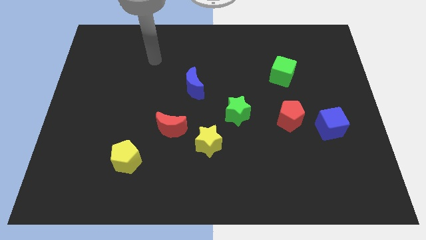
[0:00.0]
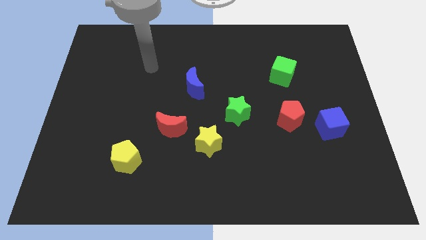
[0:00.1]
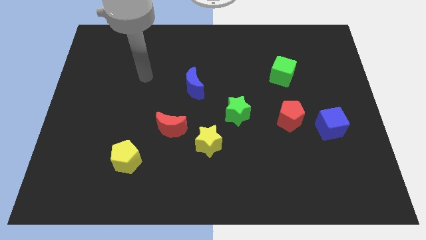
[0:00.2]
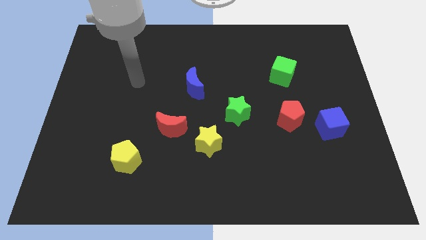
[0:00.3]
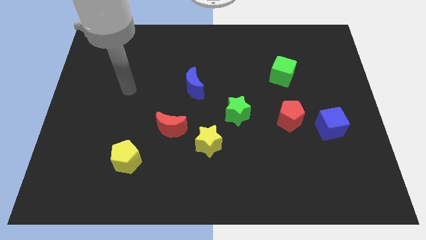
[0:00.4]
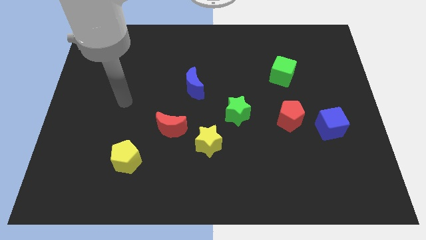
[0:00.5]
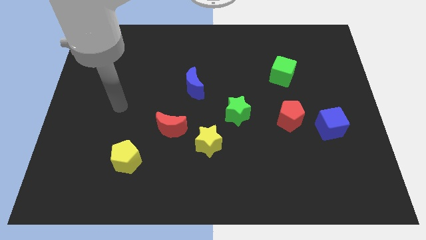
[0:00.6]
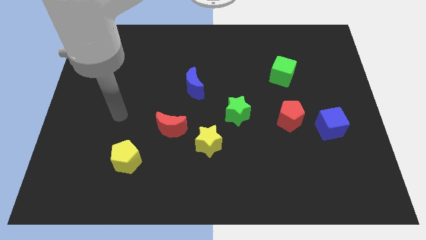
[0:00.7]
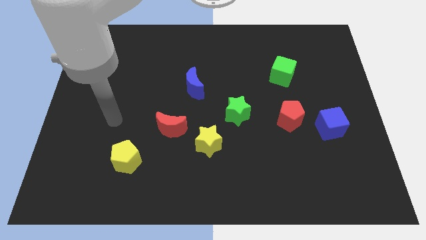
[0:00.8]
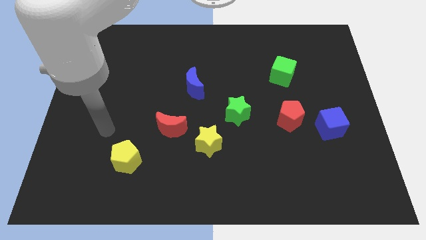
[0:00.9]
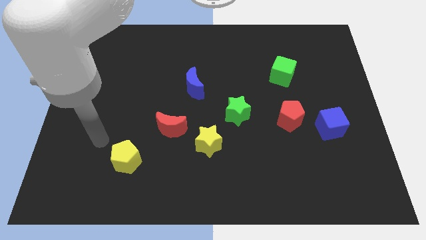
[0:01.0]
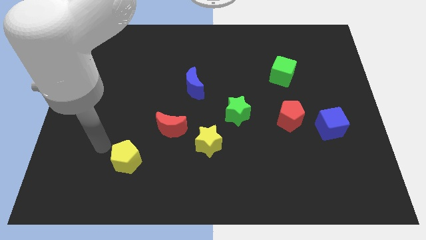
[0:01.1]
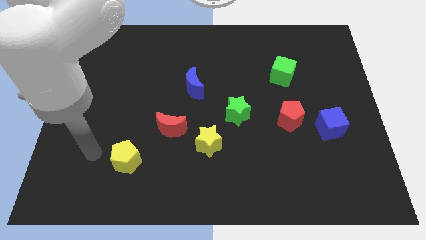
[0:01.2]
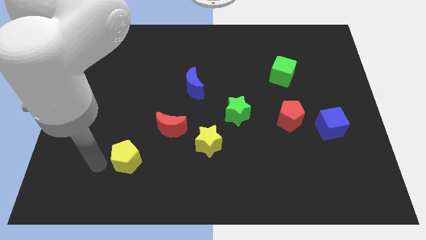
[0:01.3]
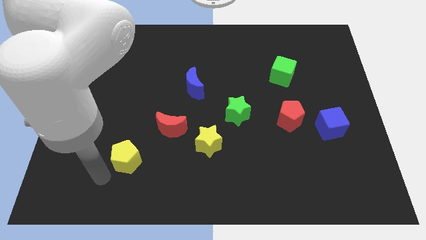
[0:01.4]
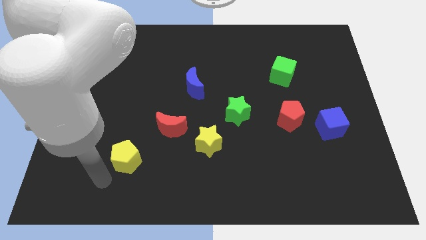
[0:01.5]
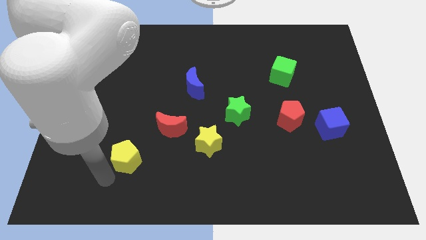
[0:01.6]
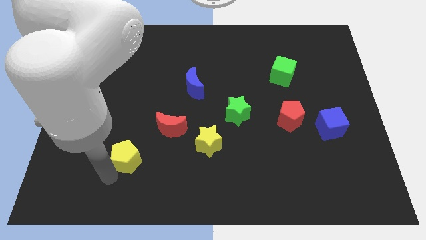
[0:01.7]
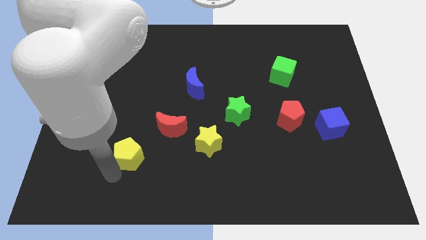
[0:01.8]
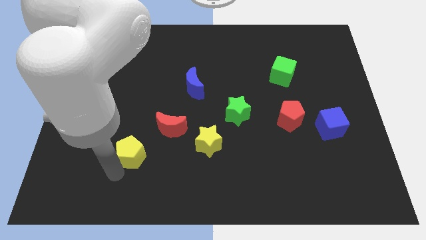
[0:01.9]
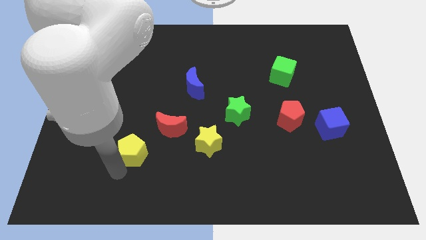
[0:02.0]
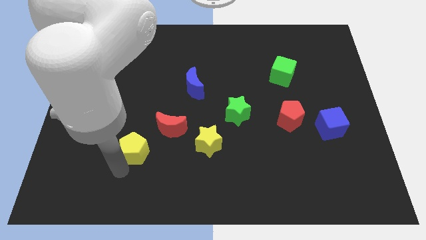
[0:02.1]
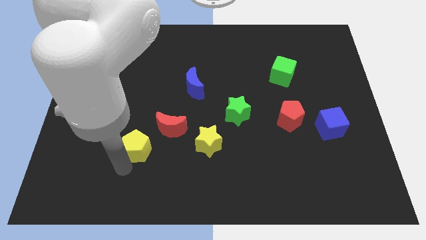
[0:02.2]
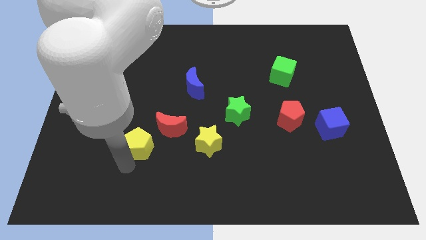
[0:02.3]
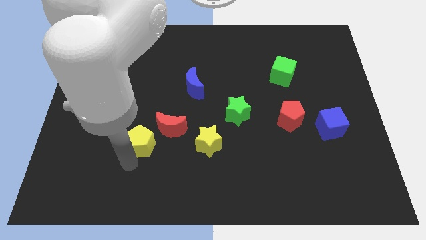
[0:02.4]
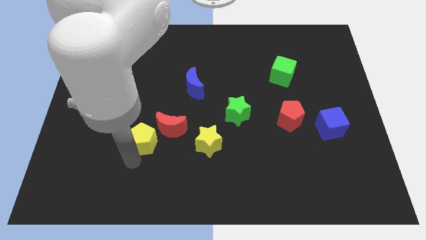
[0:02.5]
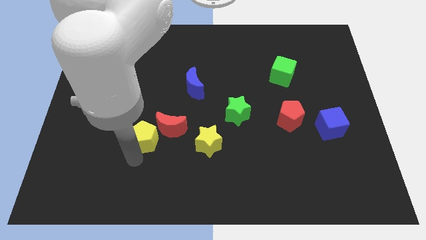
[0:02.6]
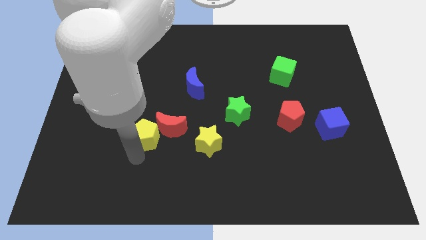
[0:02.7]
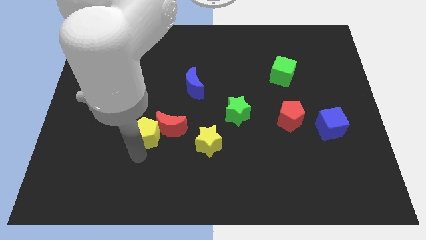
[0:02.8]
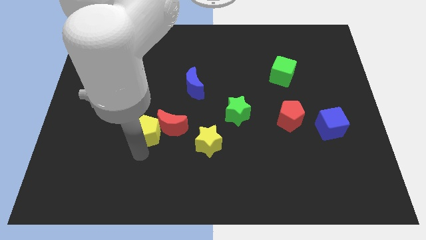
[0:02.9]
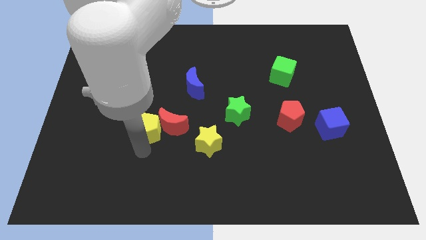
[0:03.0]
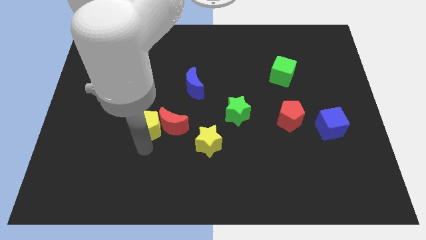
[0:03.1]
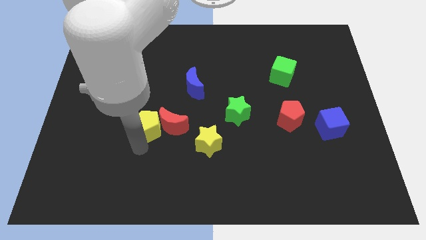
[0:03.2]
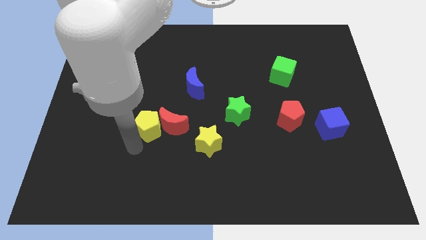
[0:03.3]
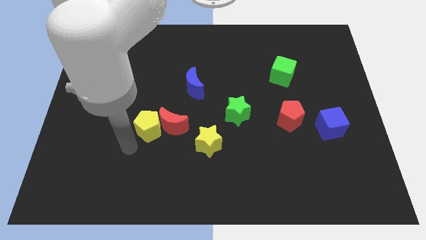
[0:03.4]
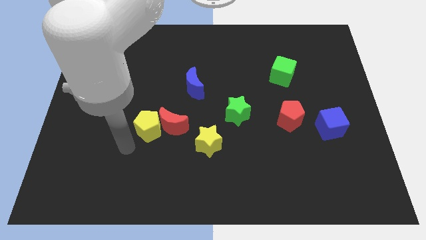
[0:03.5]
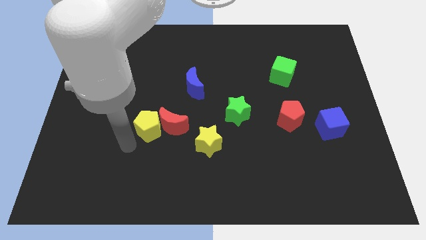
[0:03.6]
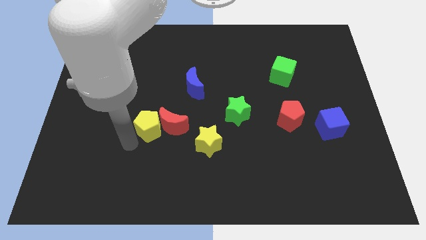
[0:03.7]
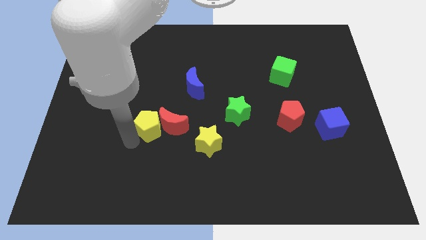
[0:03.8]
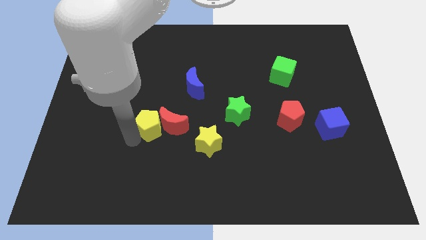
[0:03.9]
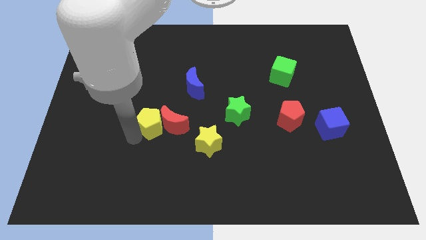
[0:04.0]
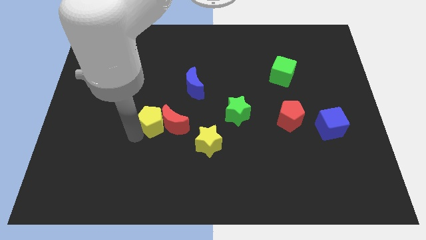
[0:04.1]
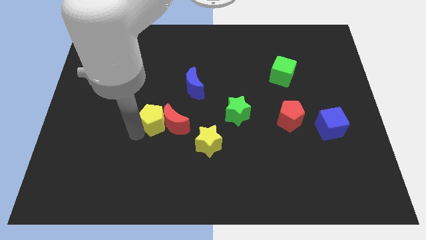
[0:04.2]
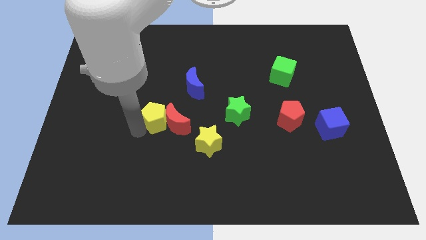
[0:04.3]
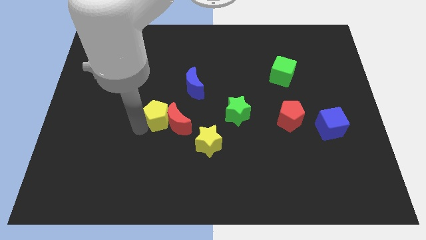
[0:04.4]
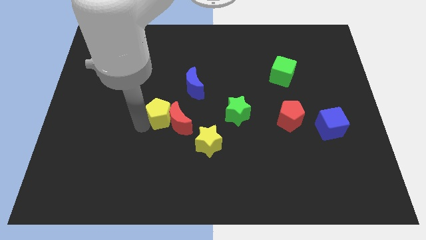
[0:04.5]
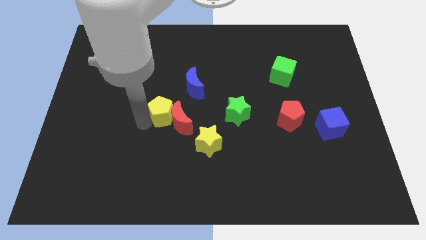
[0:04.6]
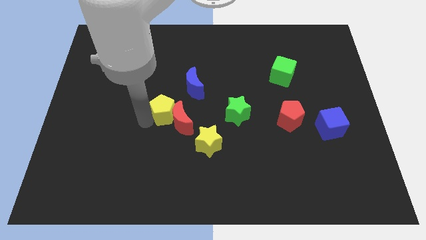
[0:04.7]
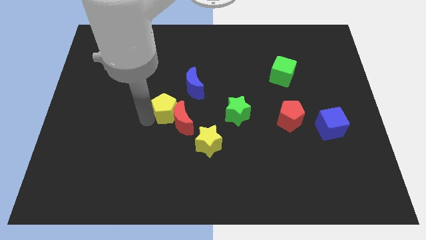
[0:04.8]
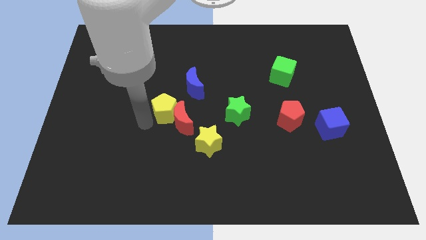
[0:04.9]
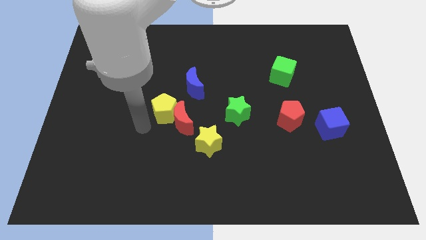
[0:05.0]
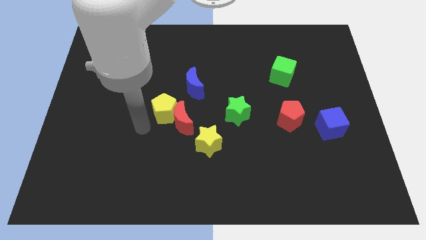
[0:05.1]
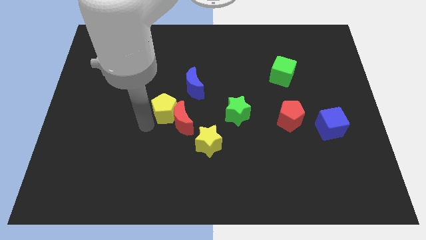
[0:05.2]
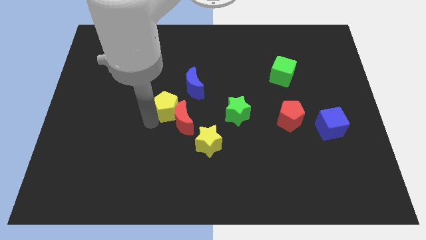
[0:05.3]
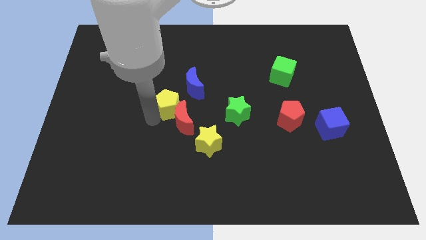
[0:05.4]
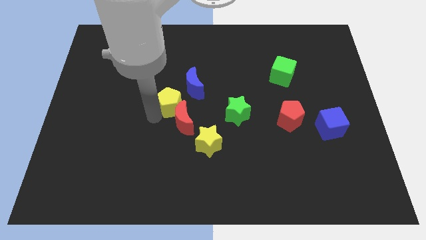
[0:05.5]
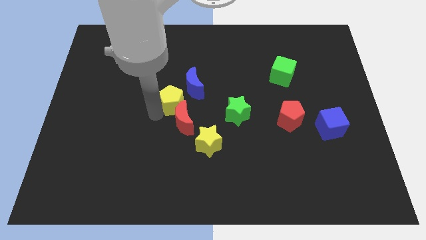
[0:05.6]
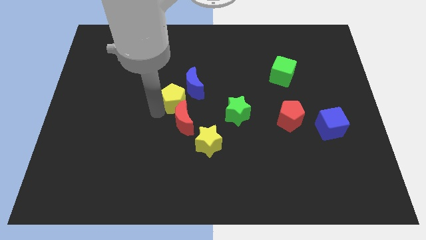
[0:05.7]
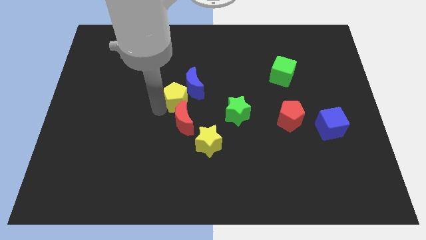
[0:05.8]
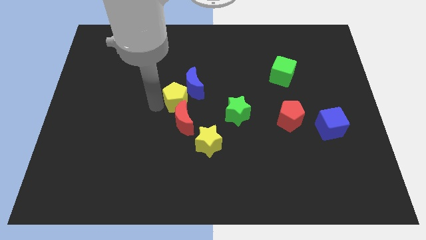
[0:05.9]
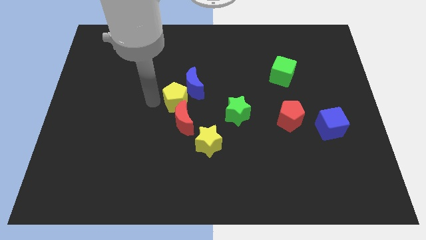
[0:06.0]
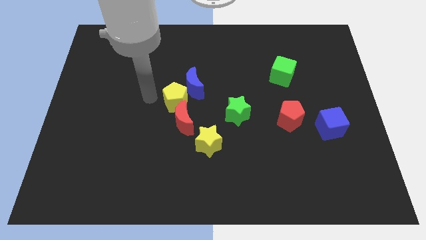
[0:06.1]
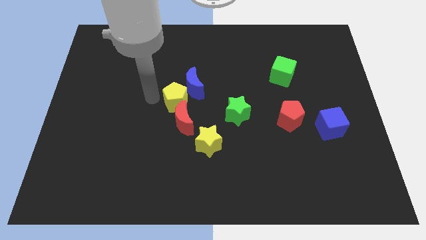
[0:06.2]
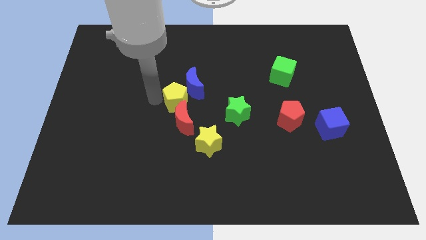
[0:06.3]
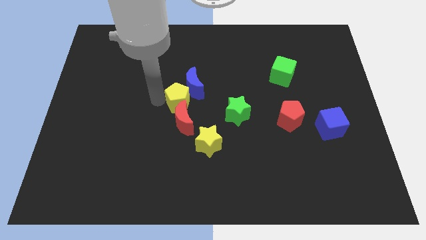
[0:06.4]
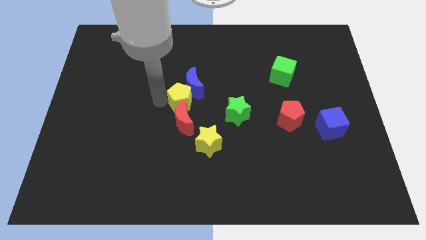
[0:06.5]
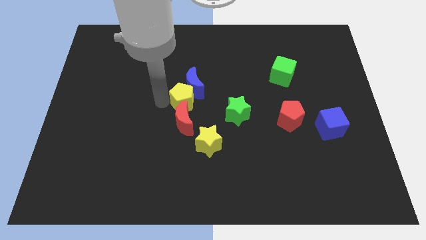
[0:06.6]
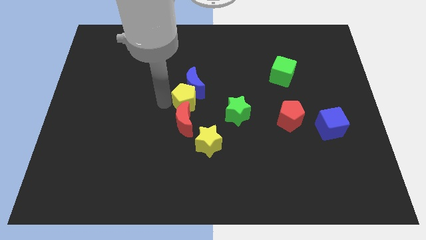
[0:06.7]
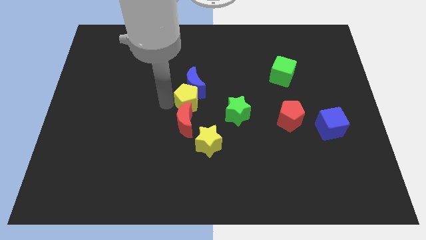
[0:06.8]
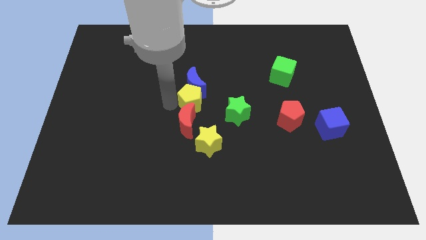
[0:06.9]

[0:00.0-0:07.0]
push the yellow pentagon up and right

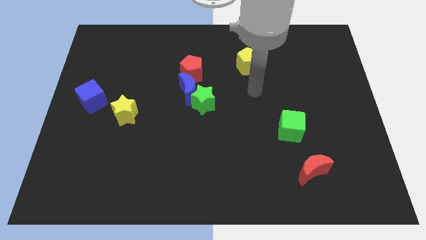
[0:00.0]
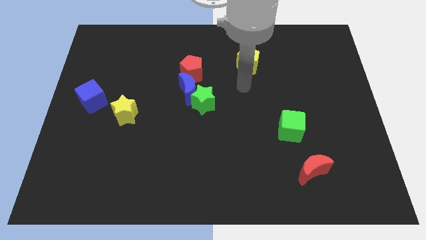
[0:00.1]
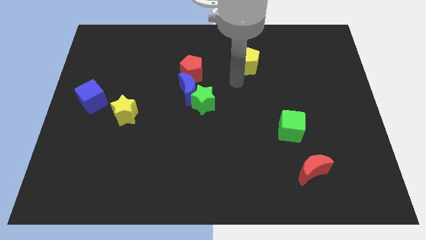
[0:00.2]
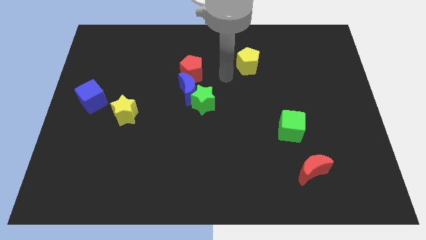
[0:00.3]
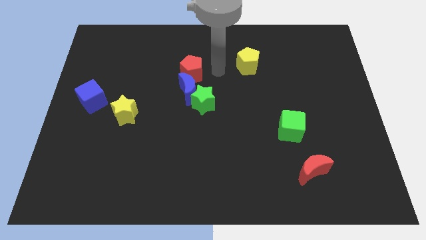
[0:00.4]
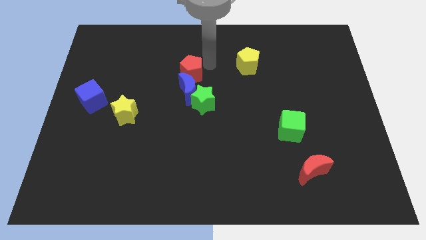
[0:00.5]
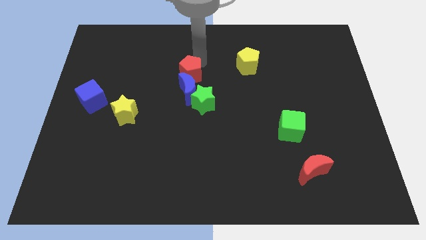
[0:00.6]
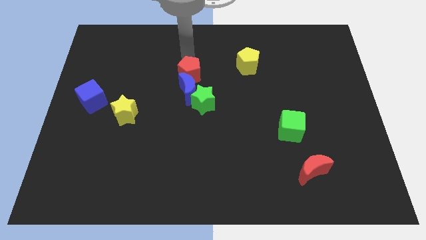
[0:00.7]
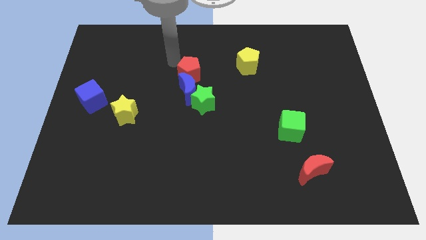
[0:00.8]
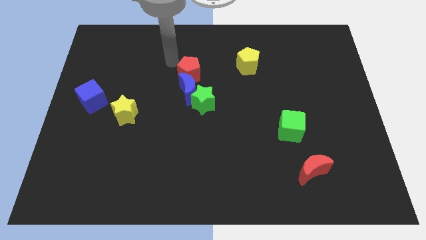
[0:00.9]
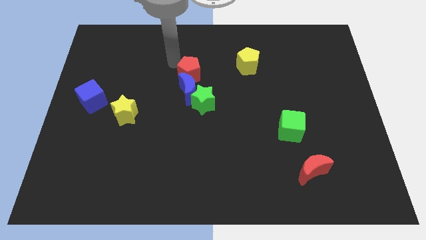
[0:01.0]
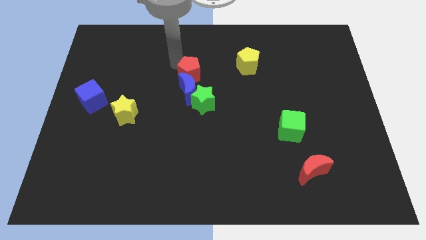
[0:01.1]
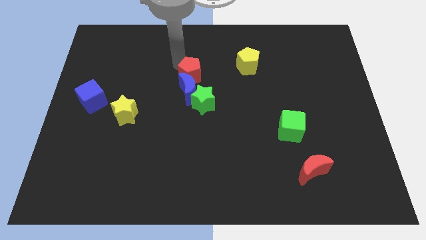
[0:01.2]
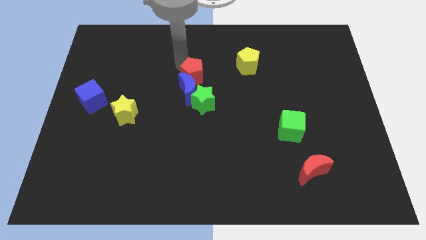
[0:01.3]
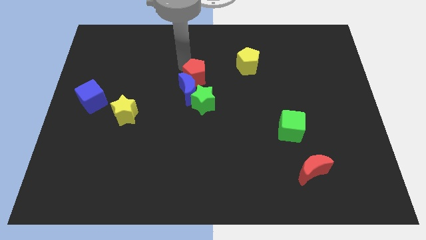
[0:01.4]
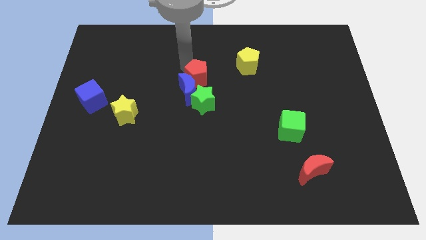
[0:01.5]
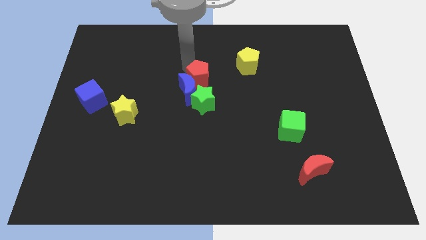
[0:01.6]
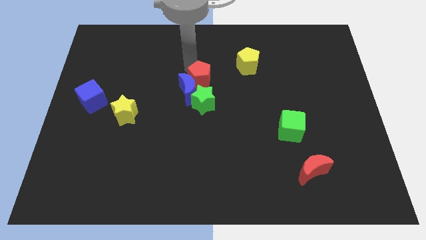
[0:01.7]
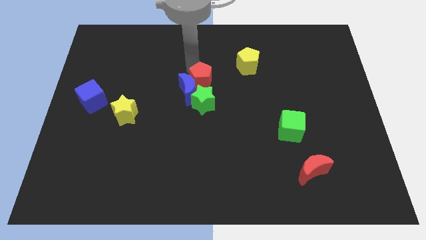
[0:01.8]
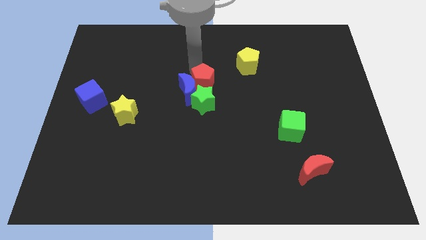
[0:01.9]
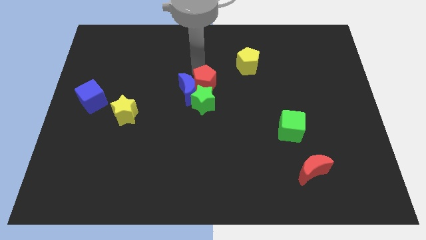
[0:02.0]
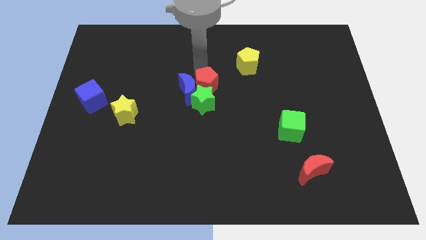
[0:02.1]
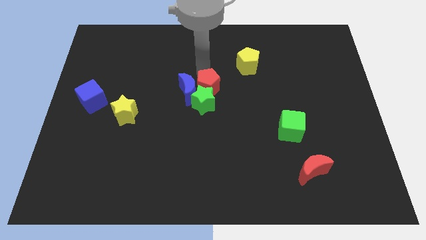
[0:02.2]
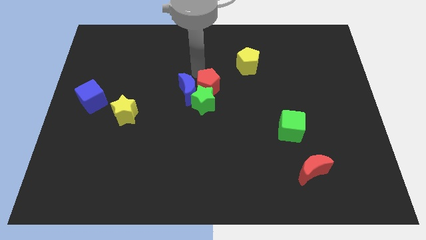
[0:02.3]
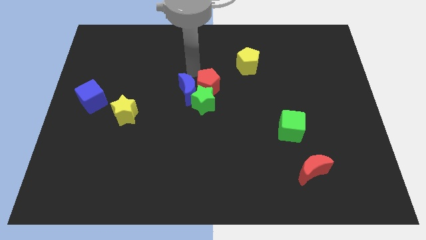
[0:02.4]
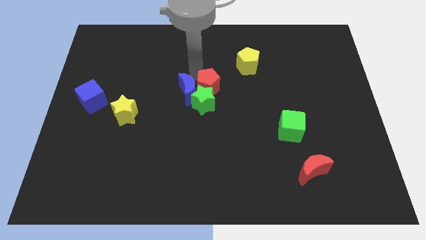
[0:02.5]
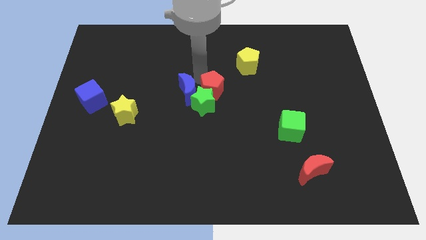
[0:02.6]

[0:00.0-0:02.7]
push the red pentagon downwards and right diagonally a little bit
